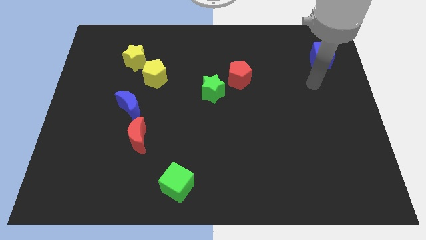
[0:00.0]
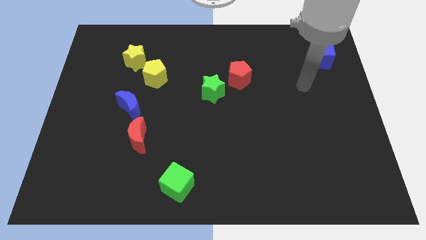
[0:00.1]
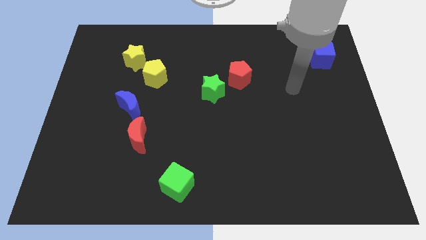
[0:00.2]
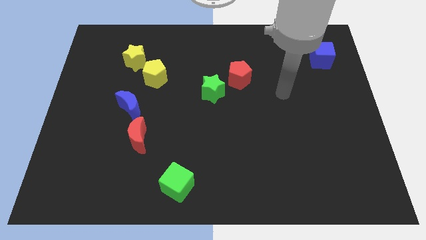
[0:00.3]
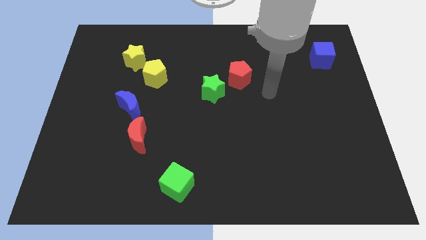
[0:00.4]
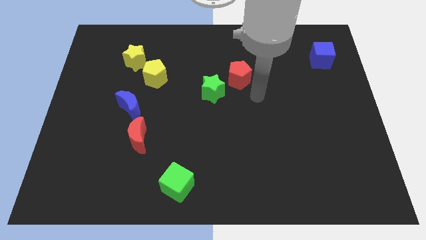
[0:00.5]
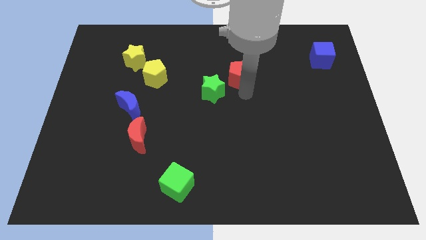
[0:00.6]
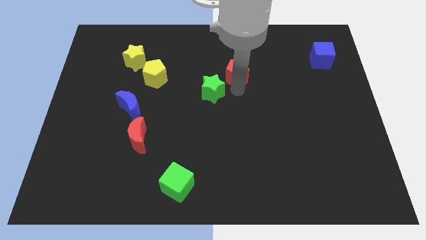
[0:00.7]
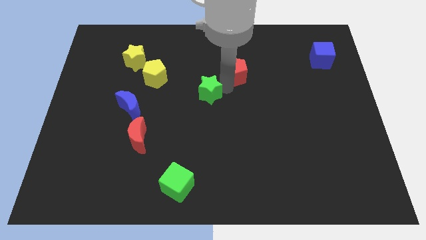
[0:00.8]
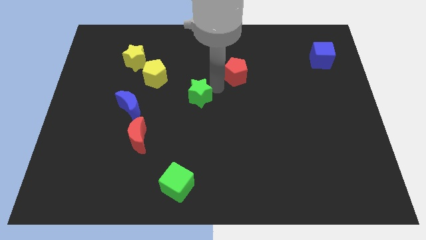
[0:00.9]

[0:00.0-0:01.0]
pull the red pentagon apart from the green star

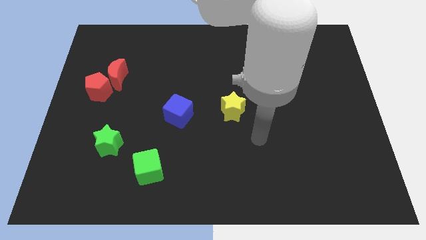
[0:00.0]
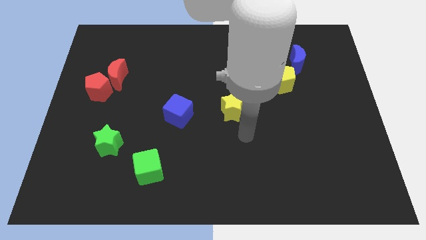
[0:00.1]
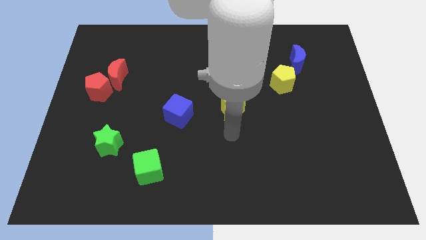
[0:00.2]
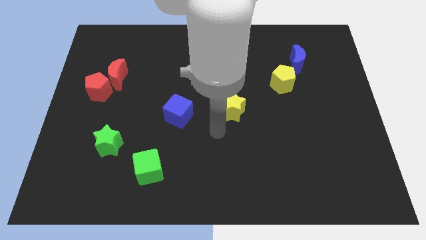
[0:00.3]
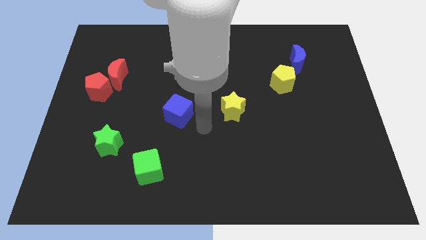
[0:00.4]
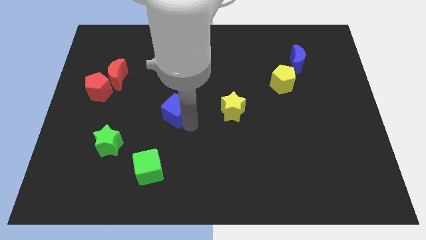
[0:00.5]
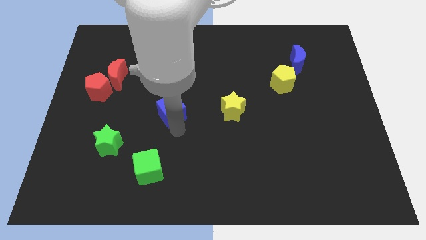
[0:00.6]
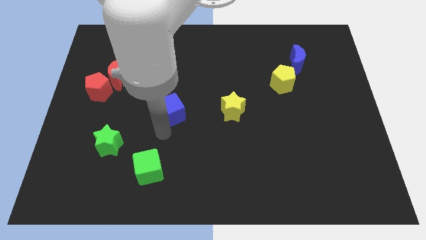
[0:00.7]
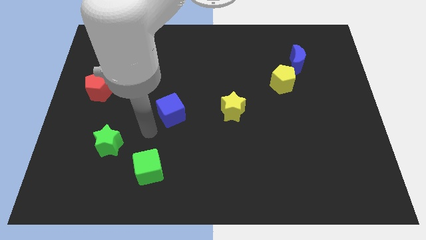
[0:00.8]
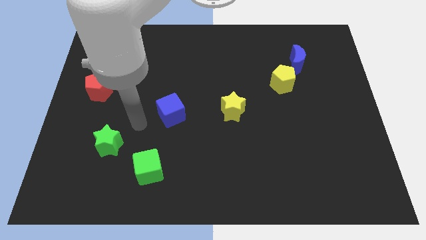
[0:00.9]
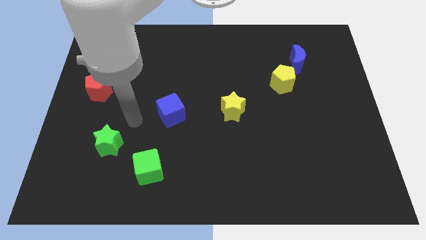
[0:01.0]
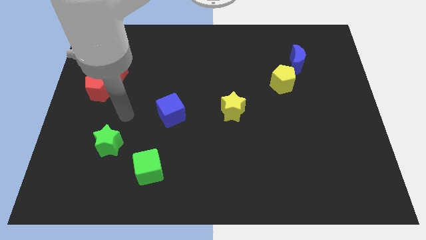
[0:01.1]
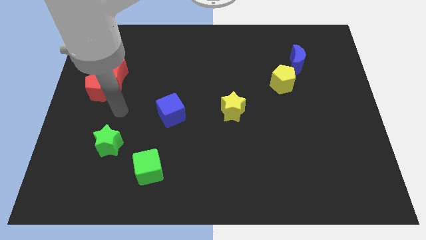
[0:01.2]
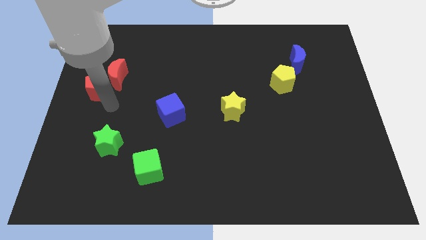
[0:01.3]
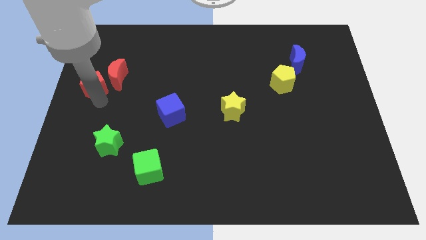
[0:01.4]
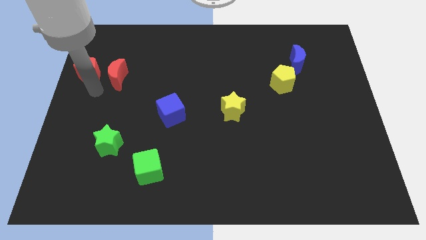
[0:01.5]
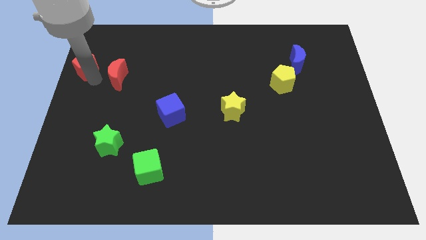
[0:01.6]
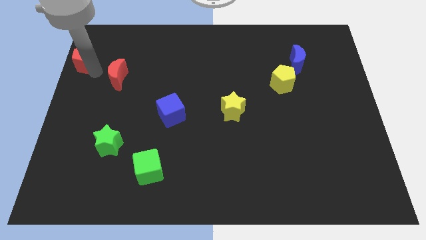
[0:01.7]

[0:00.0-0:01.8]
separate the red moon from the red pentagon

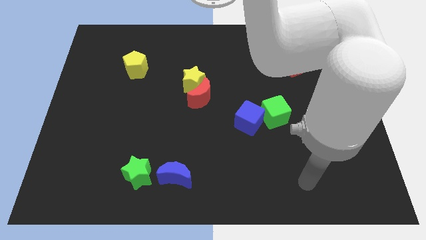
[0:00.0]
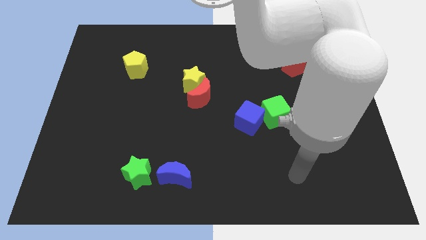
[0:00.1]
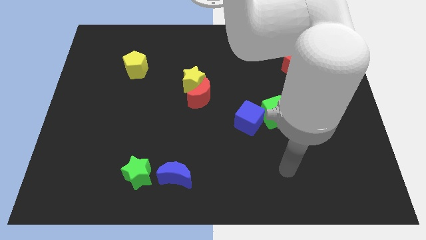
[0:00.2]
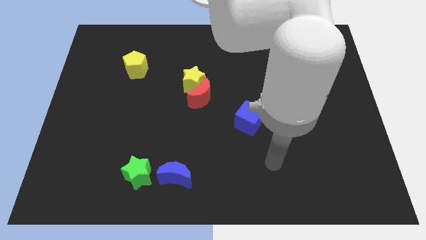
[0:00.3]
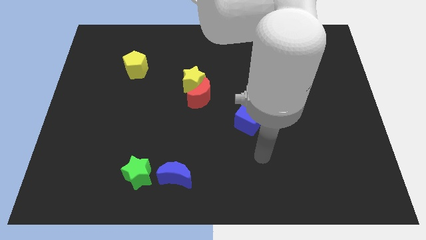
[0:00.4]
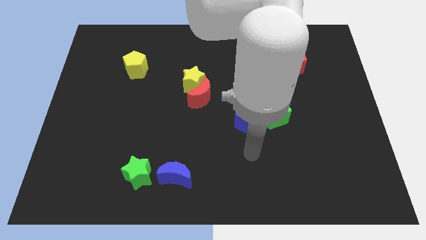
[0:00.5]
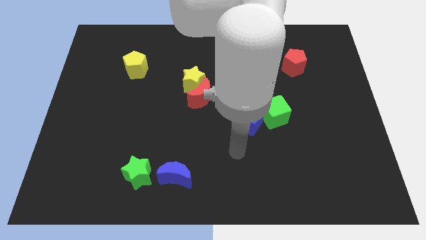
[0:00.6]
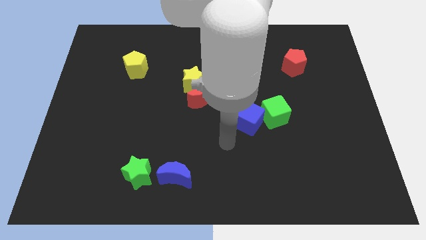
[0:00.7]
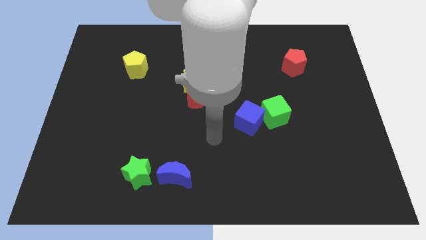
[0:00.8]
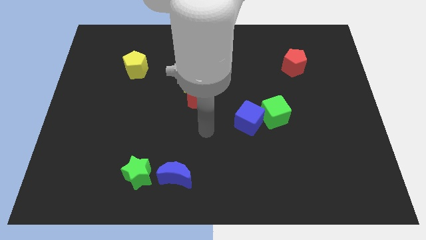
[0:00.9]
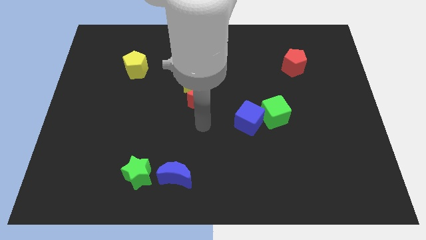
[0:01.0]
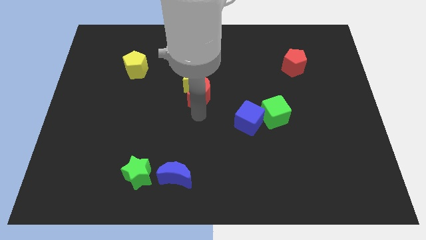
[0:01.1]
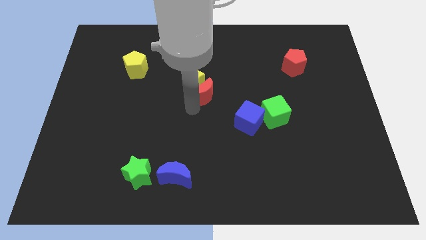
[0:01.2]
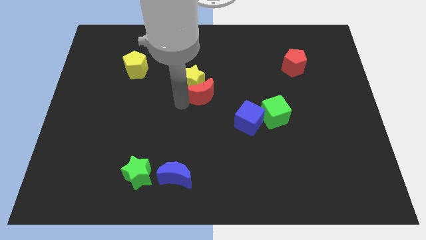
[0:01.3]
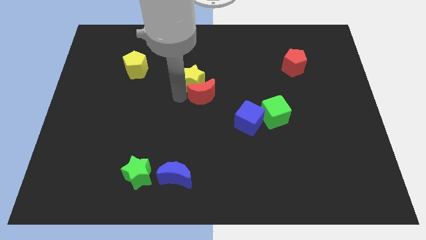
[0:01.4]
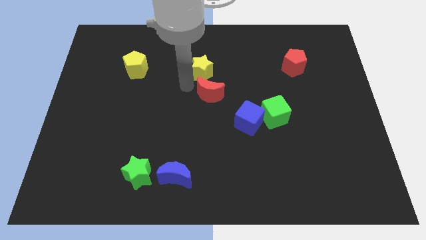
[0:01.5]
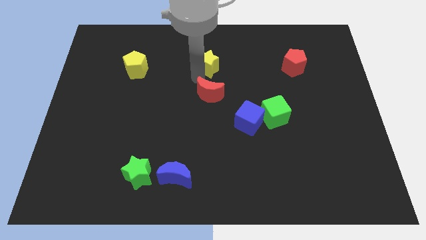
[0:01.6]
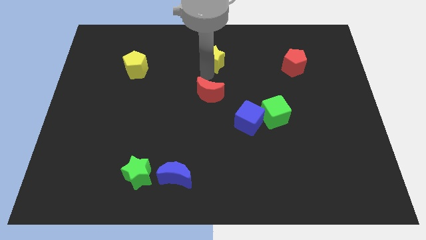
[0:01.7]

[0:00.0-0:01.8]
separate the red moon from the yellow star

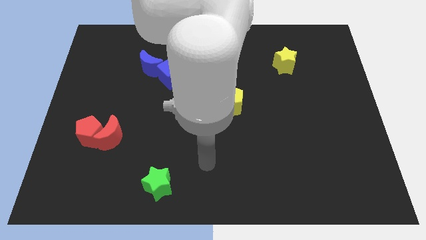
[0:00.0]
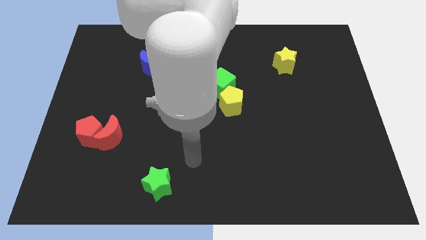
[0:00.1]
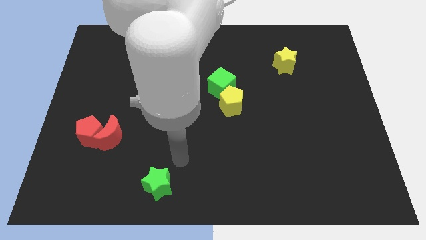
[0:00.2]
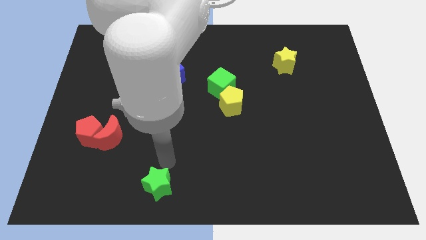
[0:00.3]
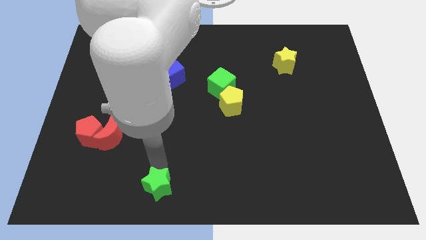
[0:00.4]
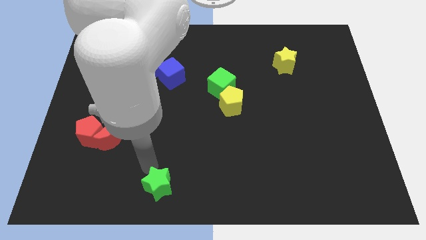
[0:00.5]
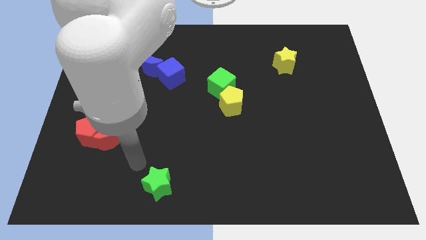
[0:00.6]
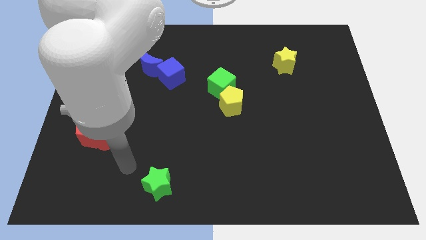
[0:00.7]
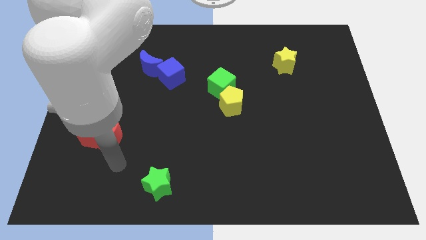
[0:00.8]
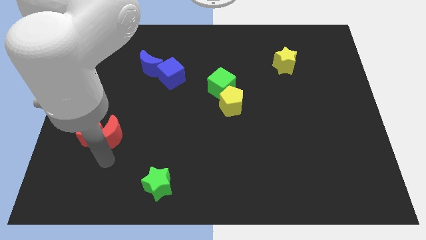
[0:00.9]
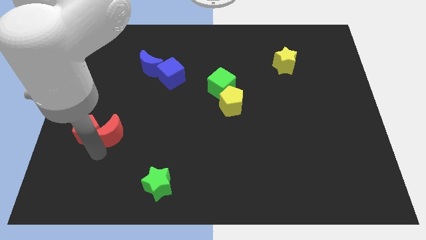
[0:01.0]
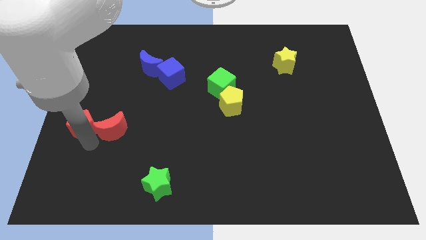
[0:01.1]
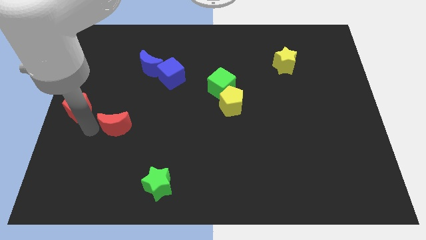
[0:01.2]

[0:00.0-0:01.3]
move the red moon away from the red pentagon

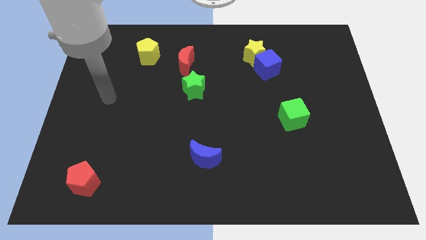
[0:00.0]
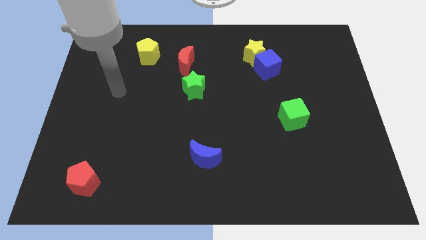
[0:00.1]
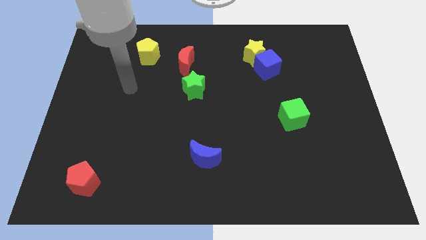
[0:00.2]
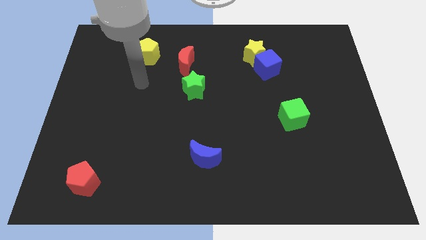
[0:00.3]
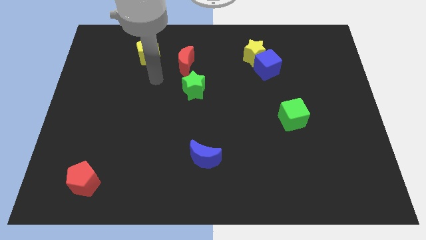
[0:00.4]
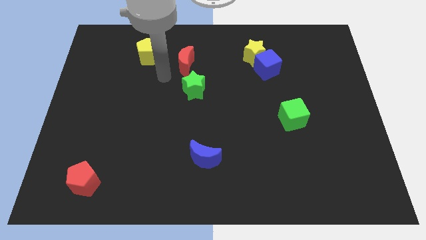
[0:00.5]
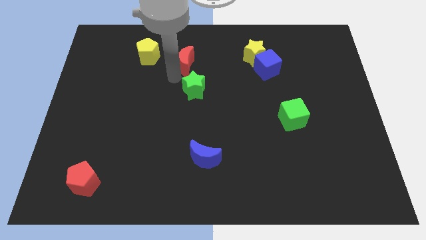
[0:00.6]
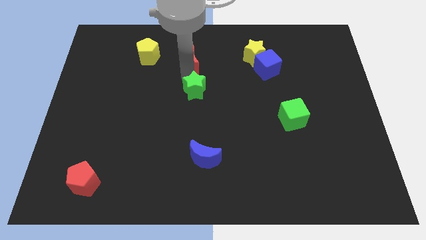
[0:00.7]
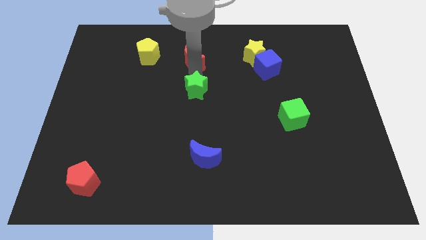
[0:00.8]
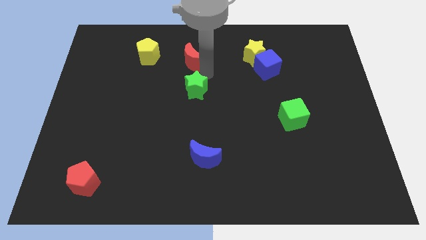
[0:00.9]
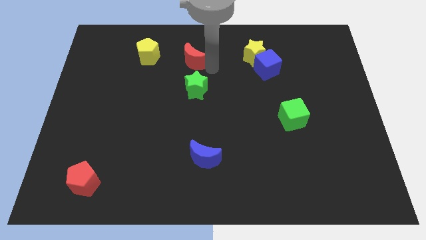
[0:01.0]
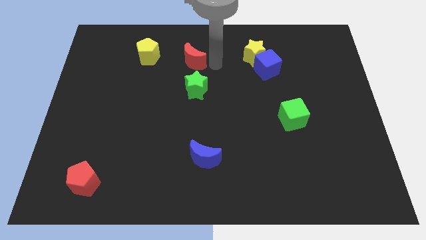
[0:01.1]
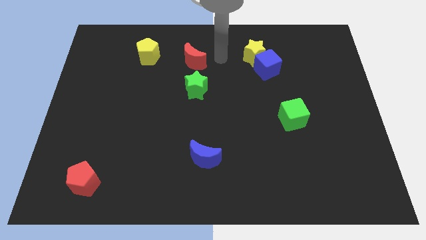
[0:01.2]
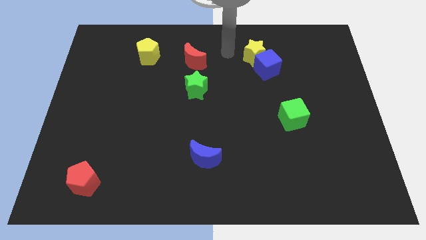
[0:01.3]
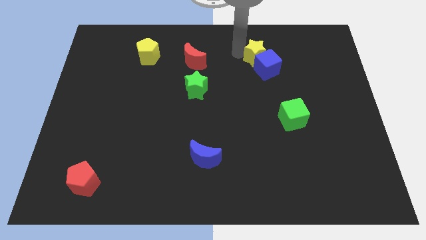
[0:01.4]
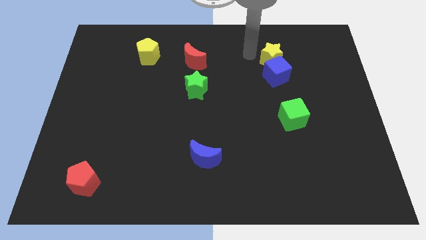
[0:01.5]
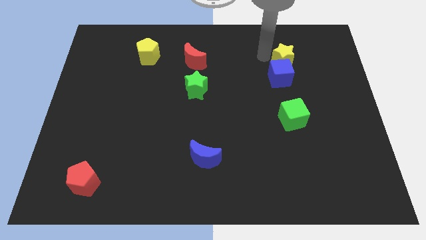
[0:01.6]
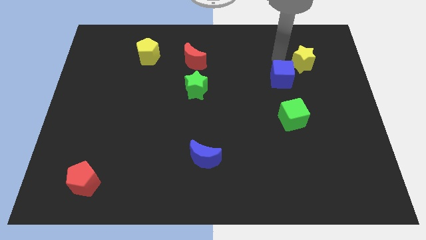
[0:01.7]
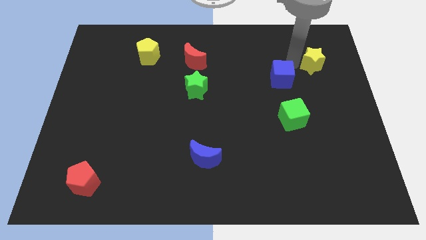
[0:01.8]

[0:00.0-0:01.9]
separate the blue cube from the yellow star

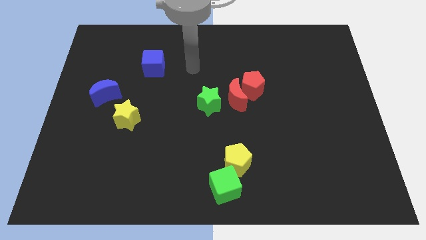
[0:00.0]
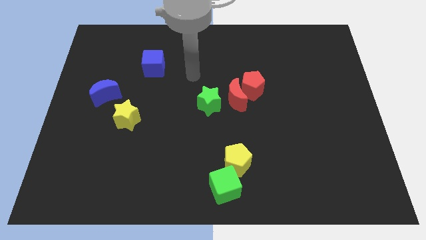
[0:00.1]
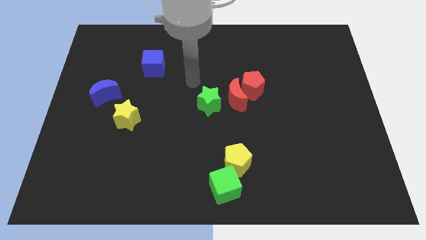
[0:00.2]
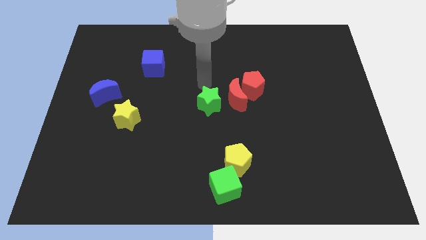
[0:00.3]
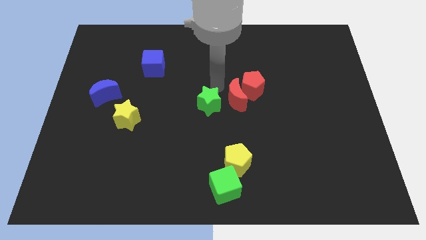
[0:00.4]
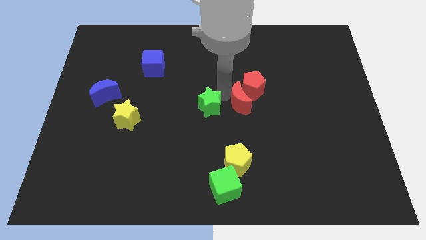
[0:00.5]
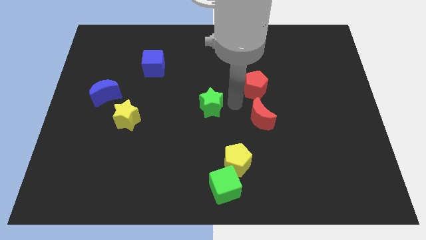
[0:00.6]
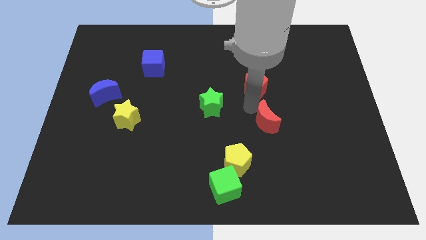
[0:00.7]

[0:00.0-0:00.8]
pull the red pentagon apart from the red moon

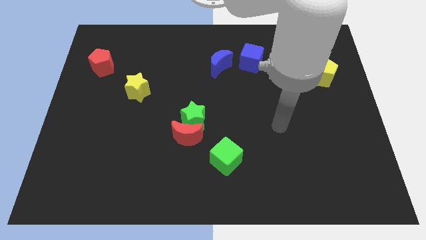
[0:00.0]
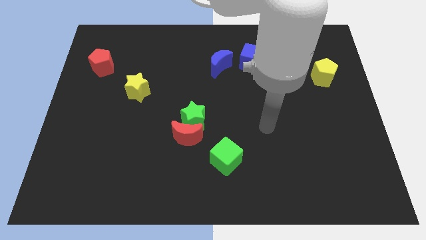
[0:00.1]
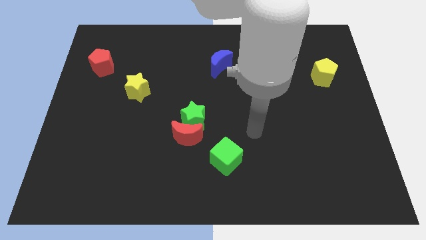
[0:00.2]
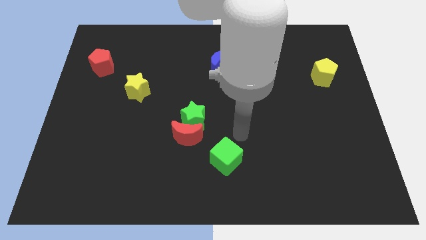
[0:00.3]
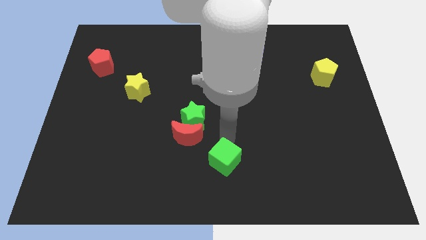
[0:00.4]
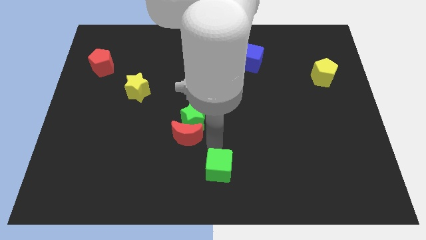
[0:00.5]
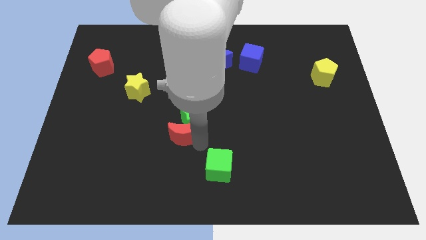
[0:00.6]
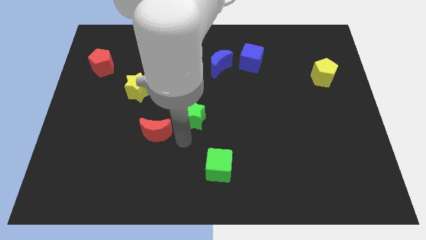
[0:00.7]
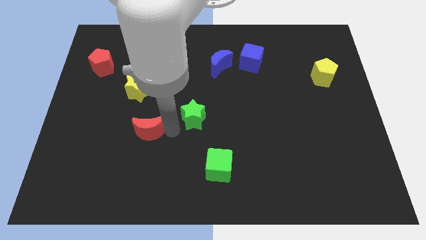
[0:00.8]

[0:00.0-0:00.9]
move the green star away from the red moon
